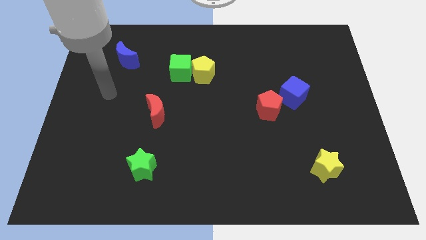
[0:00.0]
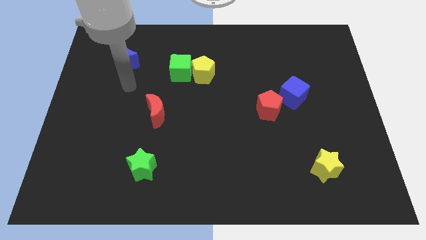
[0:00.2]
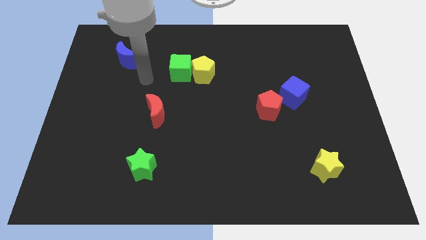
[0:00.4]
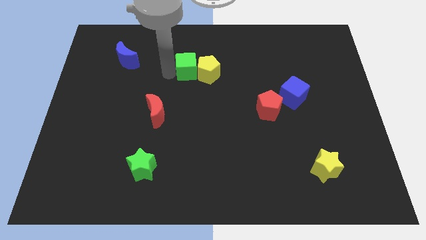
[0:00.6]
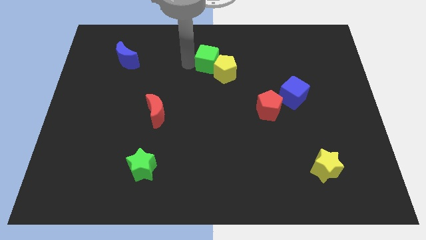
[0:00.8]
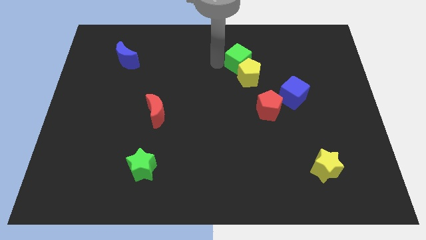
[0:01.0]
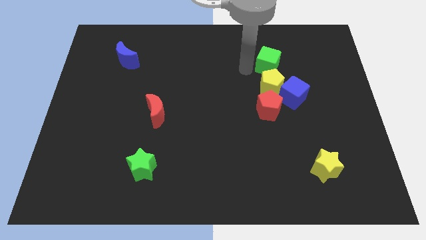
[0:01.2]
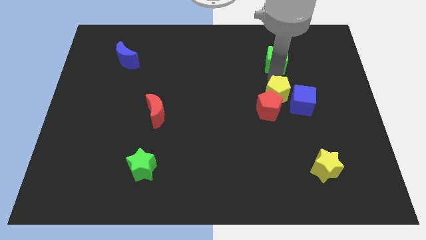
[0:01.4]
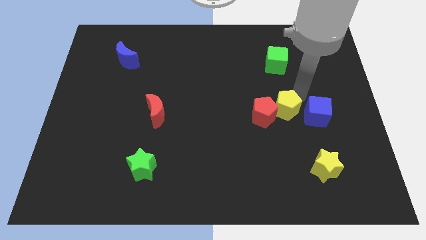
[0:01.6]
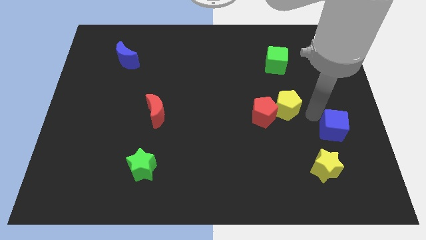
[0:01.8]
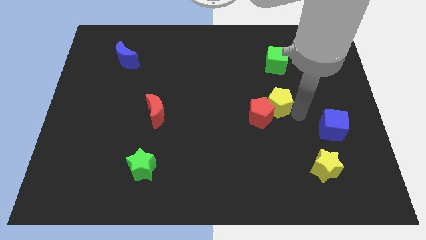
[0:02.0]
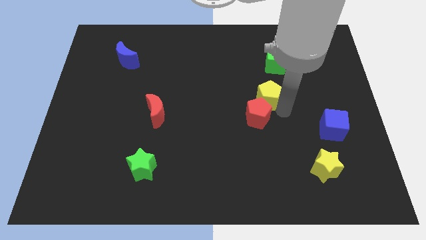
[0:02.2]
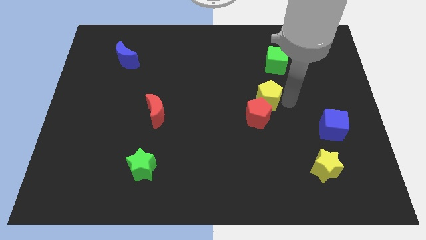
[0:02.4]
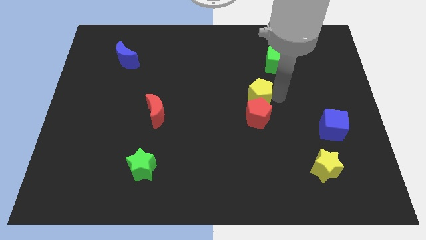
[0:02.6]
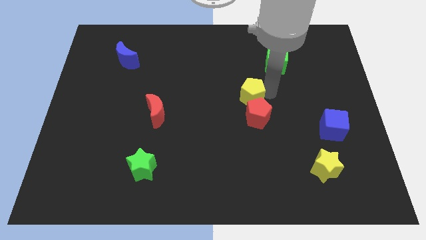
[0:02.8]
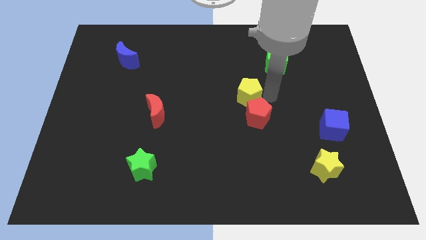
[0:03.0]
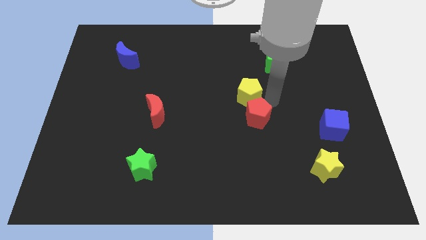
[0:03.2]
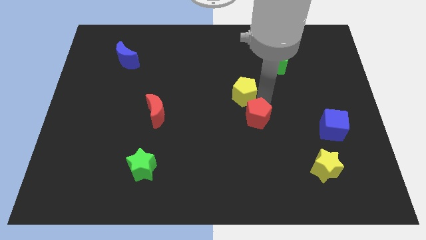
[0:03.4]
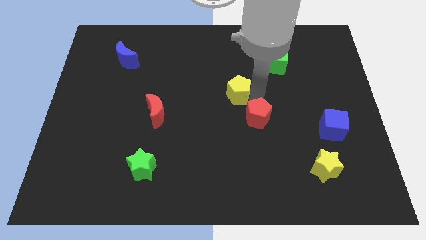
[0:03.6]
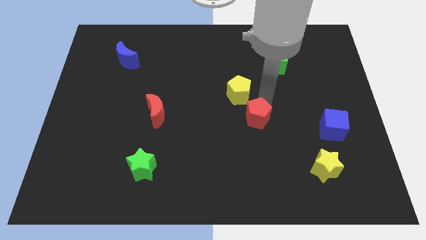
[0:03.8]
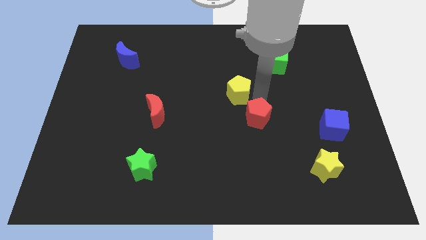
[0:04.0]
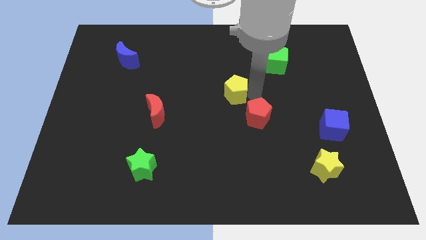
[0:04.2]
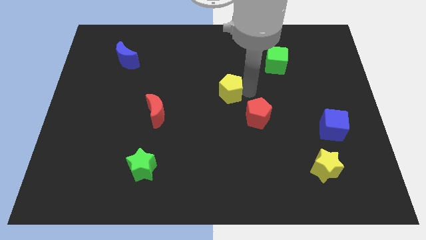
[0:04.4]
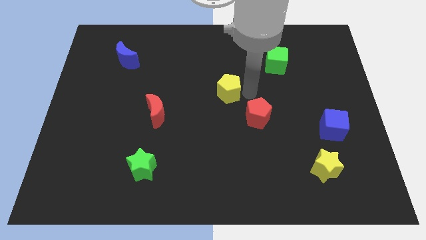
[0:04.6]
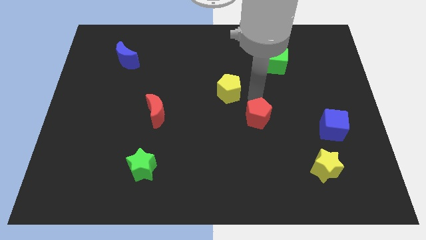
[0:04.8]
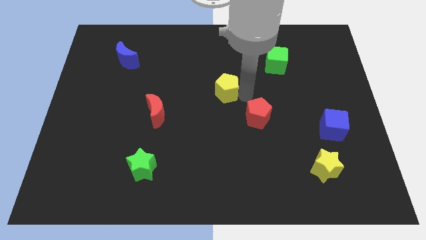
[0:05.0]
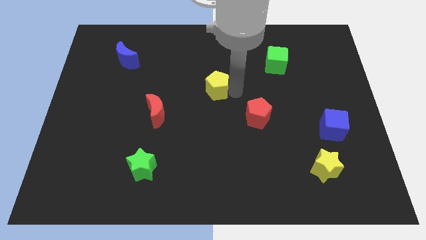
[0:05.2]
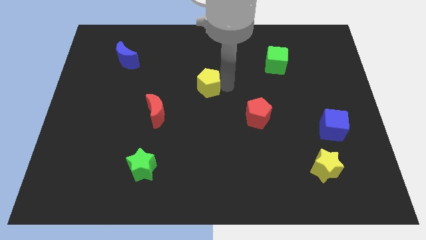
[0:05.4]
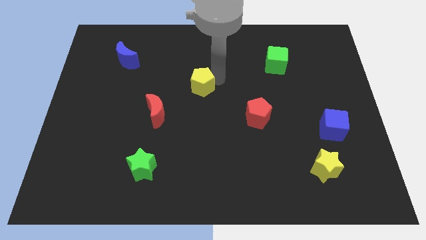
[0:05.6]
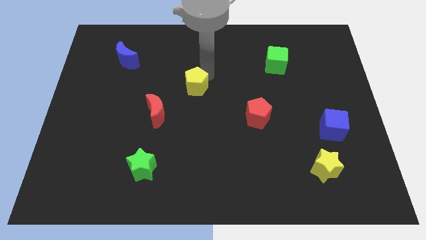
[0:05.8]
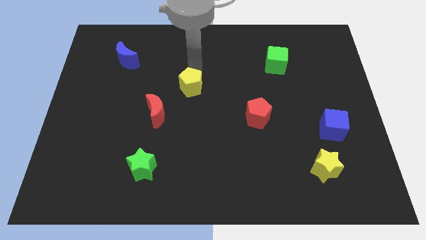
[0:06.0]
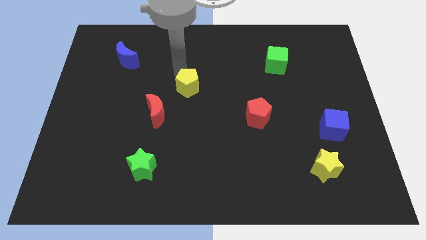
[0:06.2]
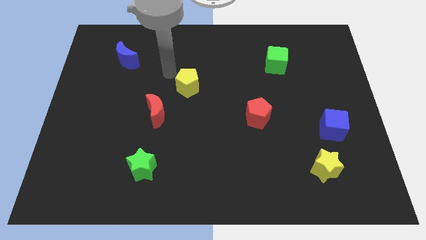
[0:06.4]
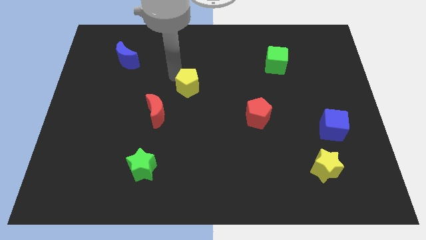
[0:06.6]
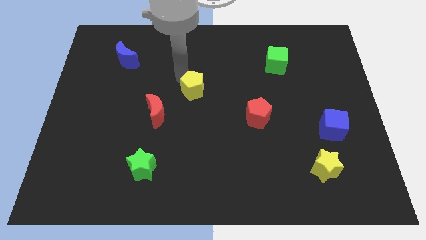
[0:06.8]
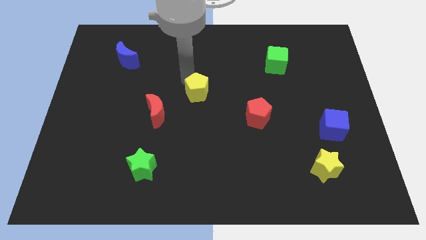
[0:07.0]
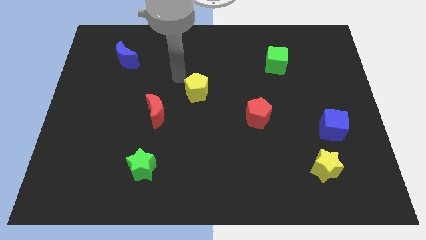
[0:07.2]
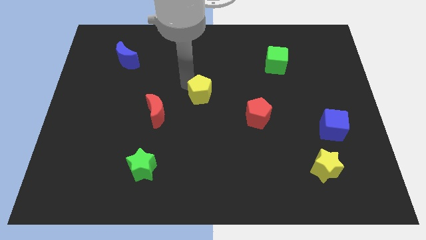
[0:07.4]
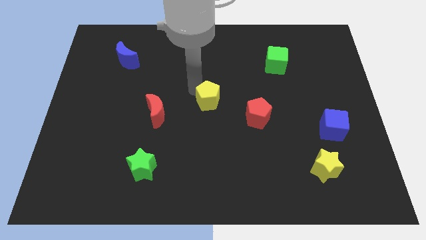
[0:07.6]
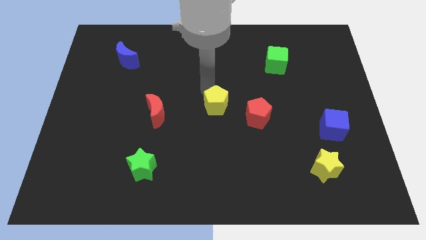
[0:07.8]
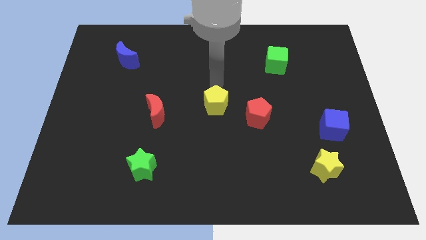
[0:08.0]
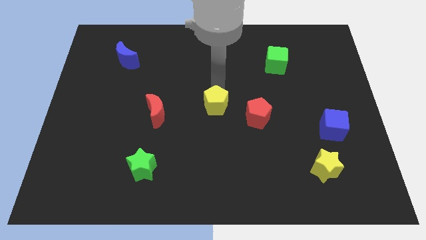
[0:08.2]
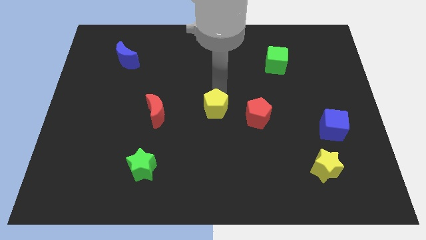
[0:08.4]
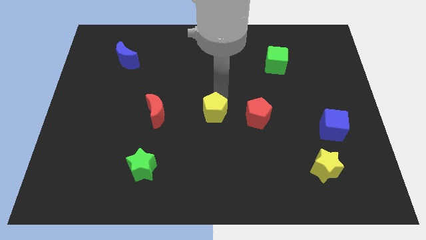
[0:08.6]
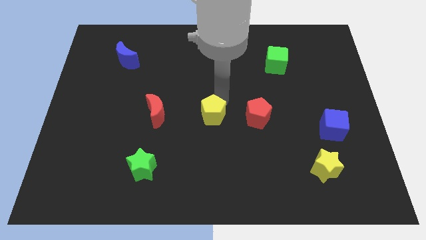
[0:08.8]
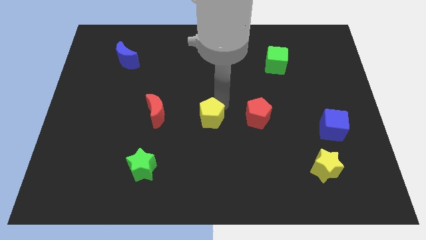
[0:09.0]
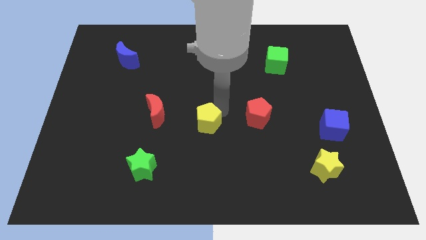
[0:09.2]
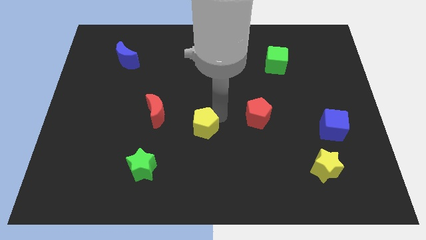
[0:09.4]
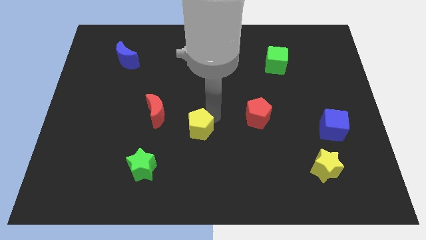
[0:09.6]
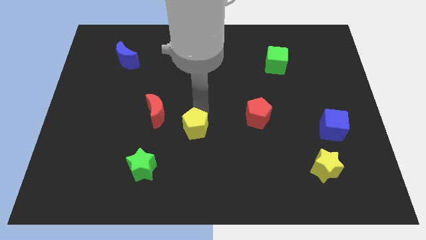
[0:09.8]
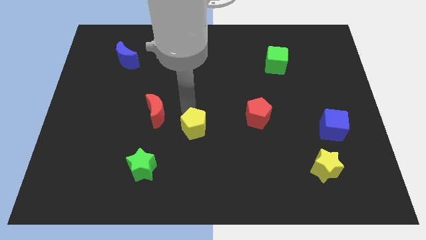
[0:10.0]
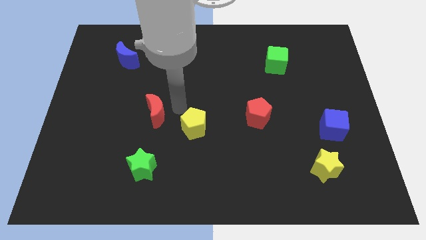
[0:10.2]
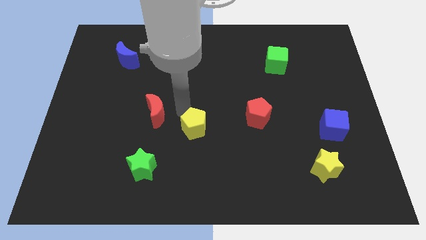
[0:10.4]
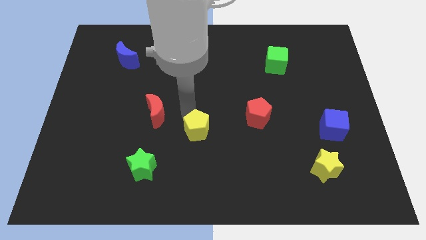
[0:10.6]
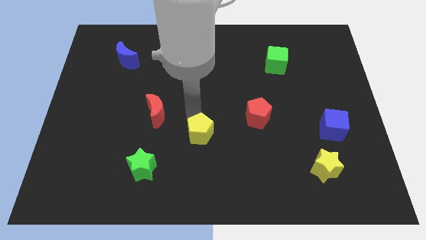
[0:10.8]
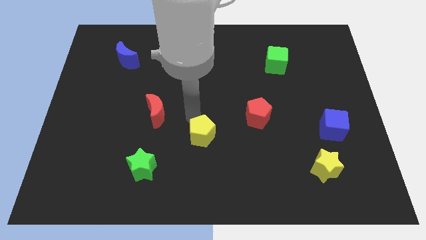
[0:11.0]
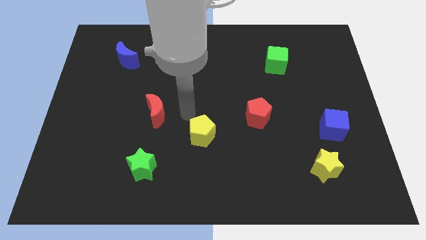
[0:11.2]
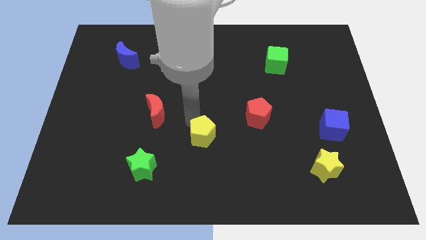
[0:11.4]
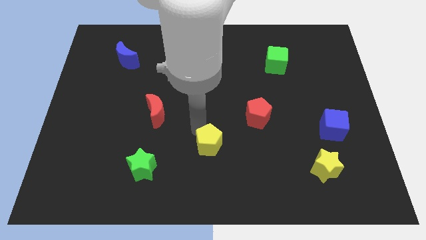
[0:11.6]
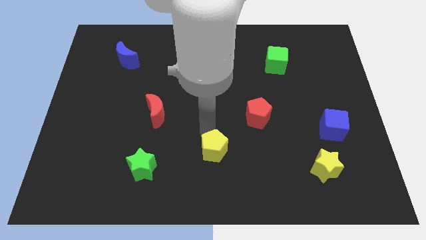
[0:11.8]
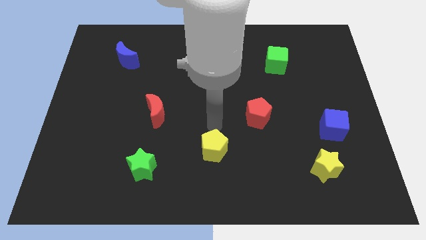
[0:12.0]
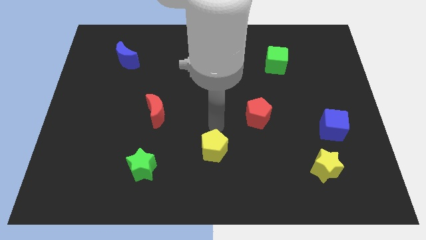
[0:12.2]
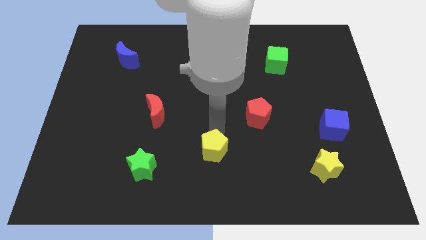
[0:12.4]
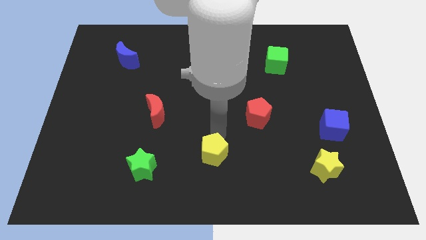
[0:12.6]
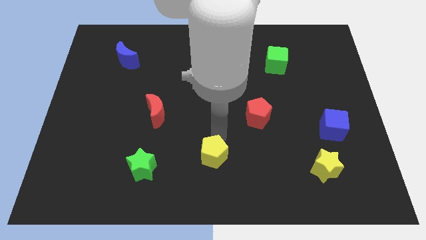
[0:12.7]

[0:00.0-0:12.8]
slide the yellow pentagon to the bottom side
